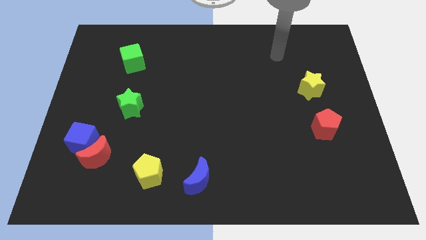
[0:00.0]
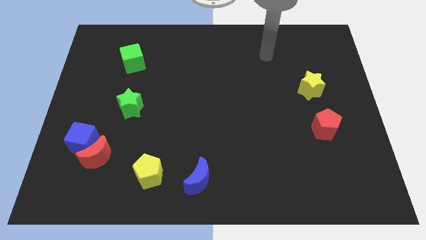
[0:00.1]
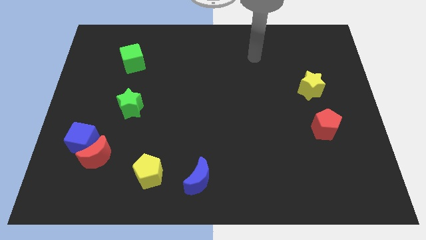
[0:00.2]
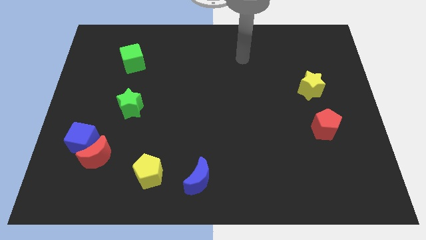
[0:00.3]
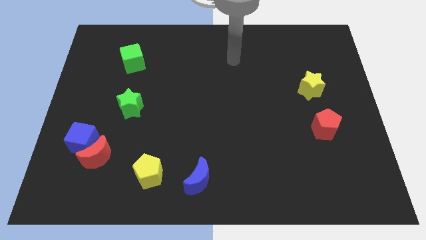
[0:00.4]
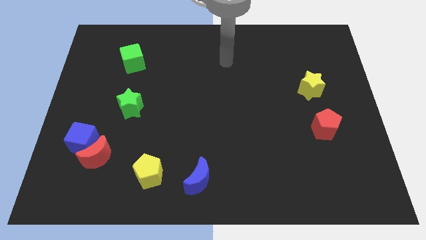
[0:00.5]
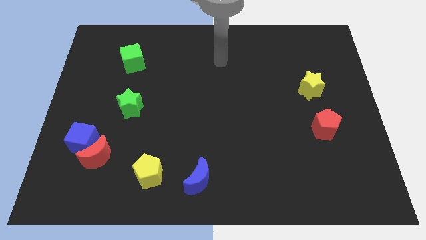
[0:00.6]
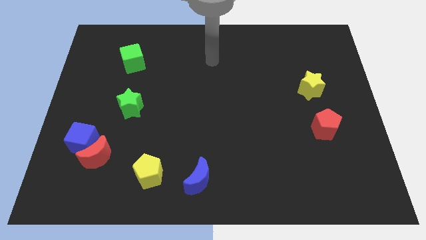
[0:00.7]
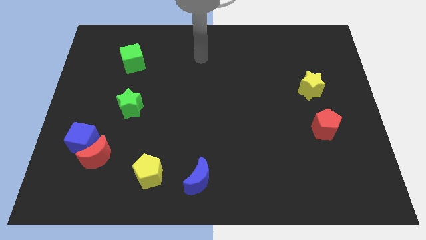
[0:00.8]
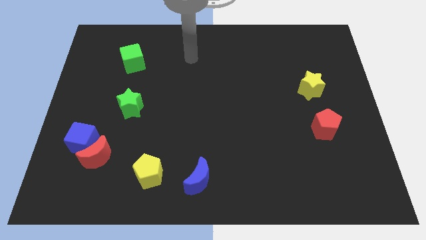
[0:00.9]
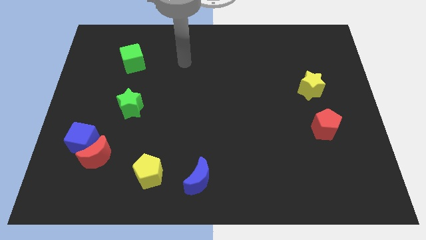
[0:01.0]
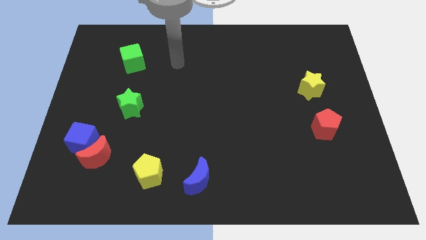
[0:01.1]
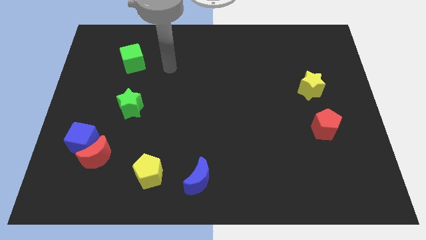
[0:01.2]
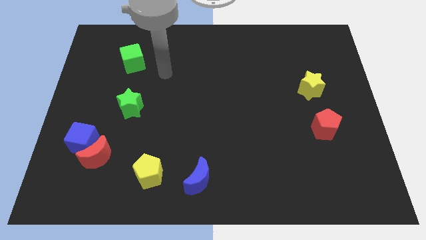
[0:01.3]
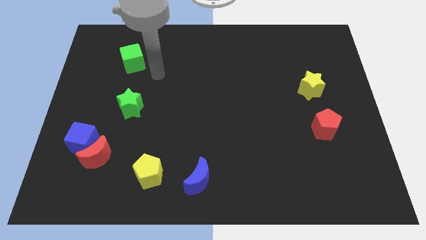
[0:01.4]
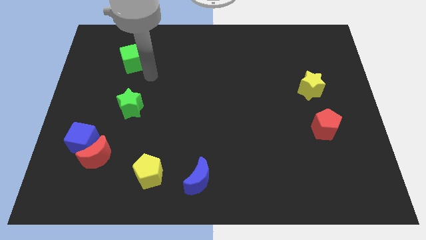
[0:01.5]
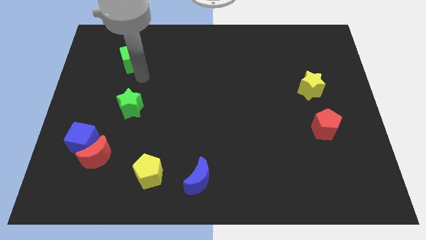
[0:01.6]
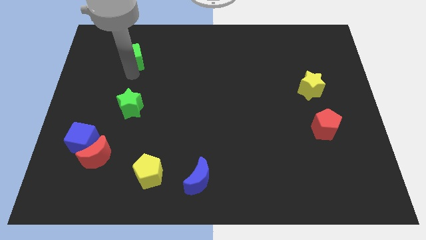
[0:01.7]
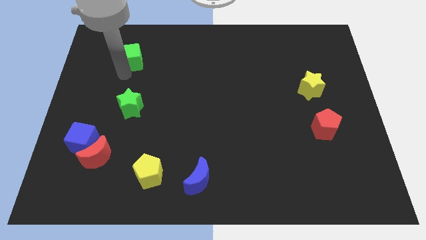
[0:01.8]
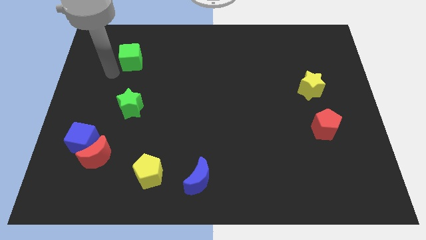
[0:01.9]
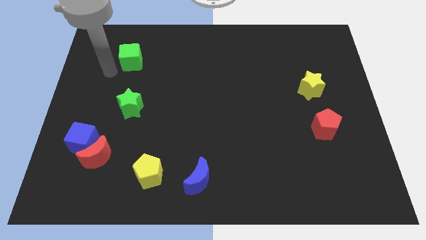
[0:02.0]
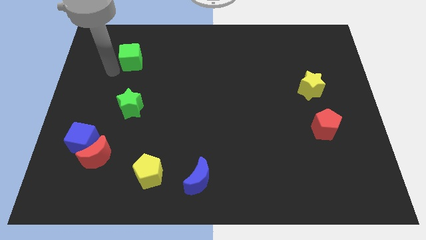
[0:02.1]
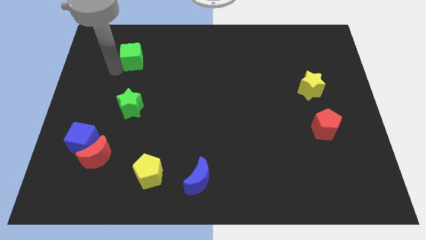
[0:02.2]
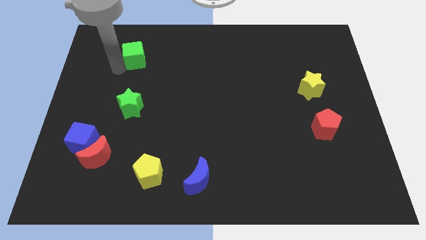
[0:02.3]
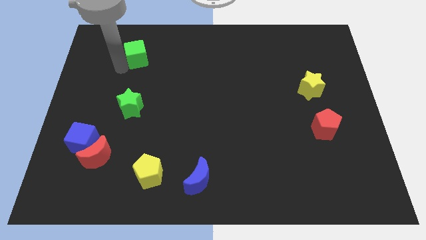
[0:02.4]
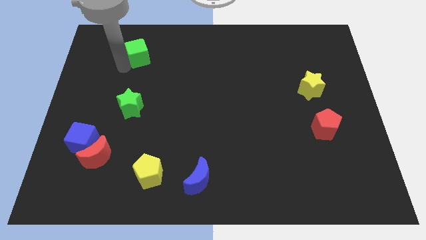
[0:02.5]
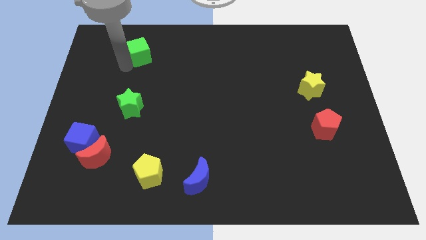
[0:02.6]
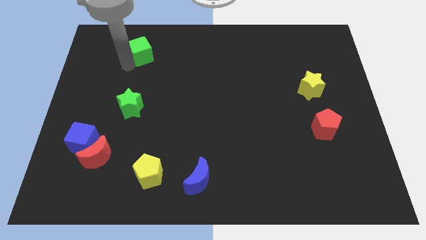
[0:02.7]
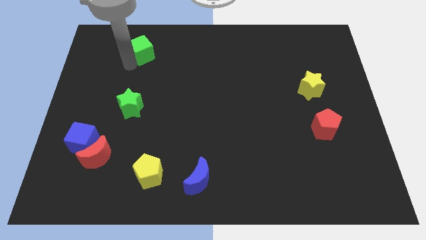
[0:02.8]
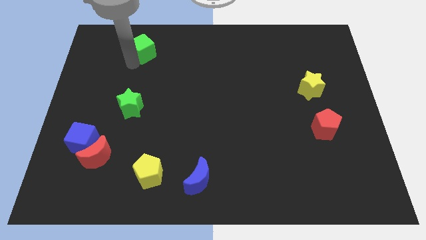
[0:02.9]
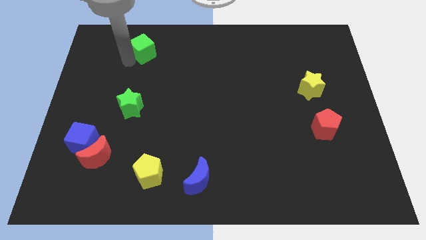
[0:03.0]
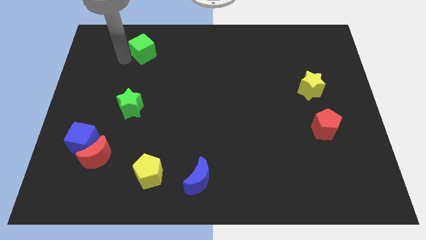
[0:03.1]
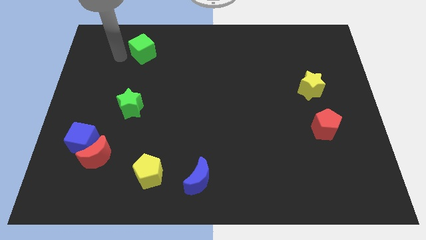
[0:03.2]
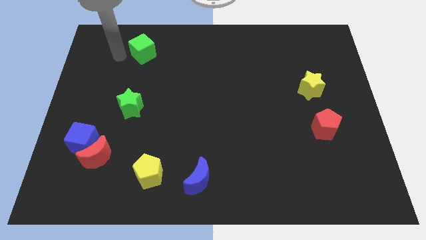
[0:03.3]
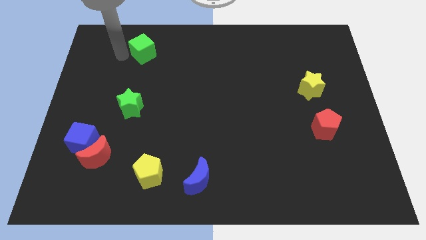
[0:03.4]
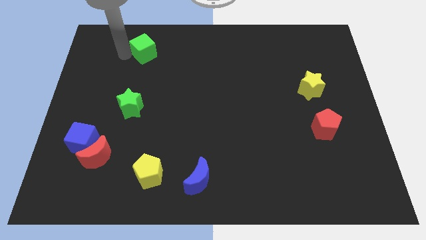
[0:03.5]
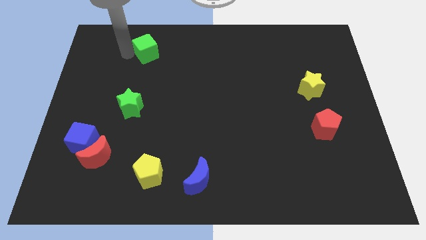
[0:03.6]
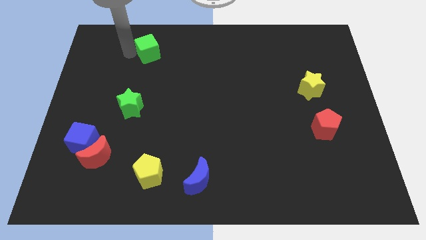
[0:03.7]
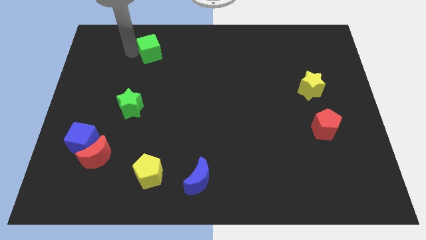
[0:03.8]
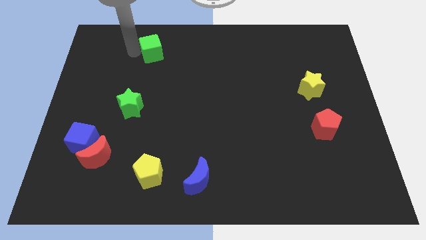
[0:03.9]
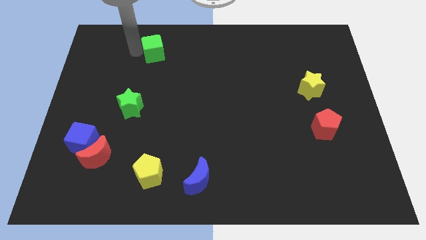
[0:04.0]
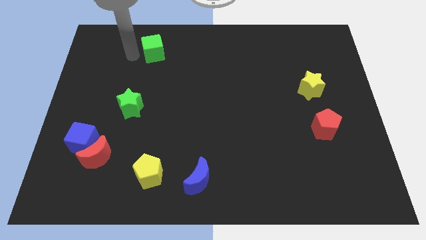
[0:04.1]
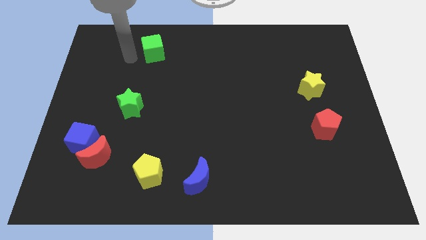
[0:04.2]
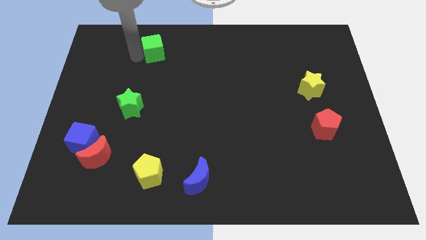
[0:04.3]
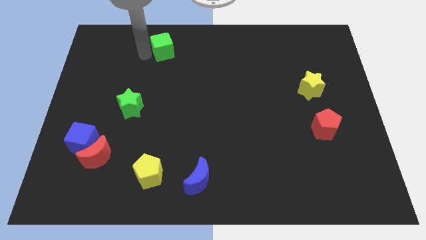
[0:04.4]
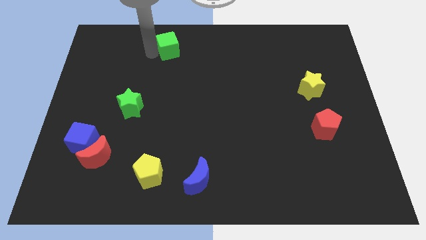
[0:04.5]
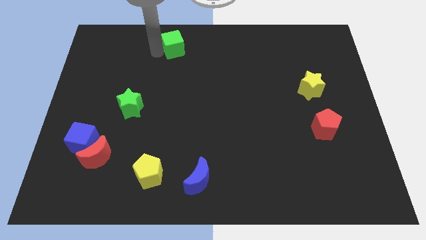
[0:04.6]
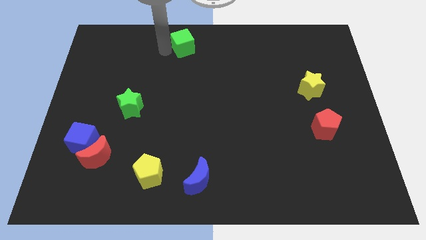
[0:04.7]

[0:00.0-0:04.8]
push the green cube to the top

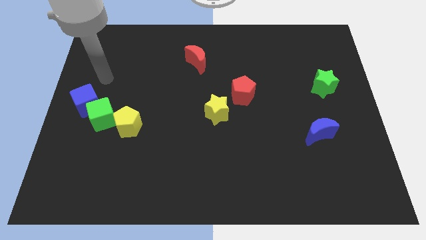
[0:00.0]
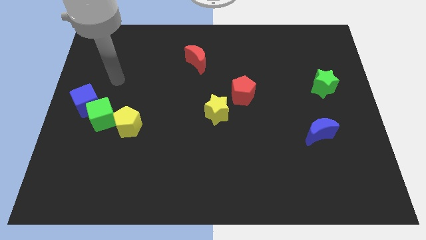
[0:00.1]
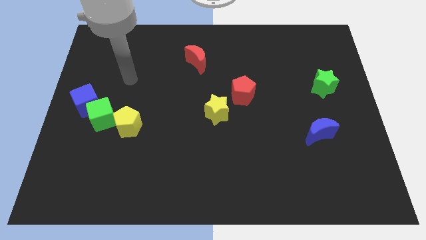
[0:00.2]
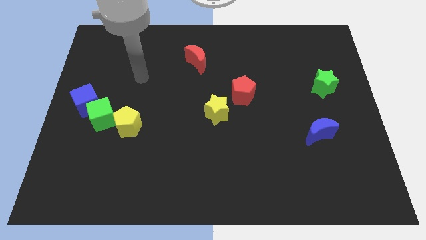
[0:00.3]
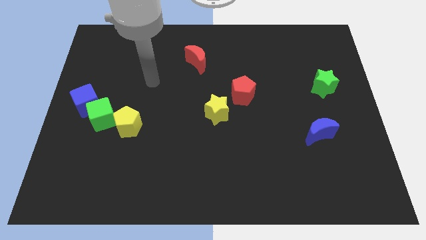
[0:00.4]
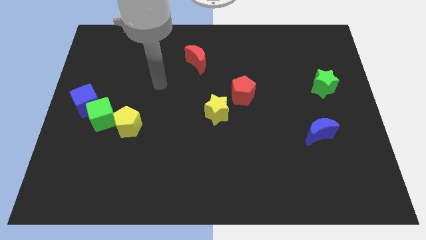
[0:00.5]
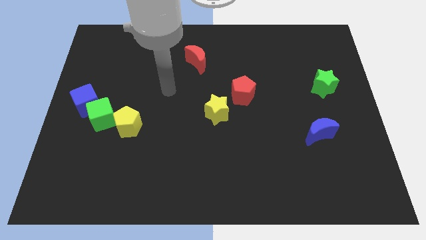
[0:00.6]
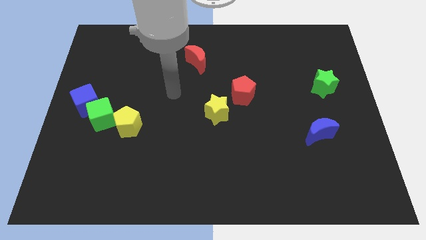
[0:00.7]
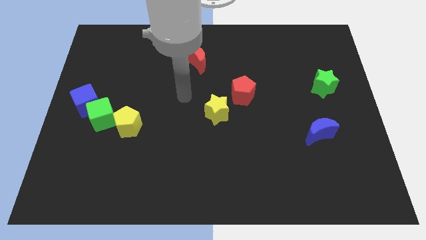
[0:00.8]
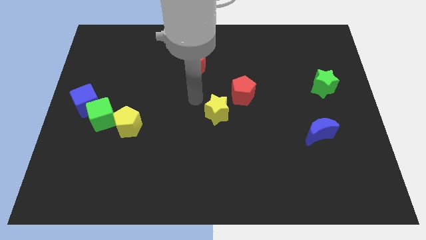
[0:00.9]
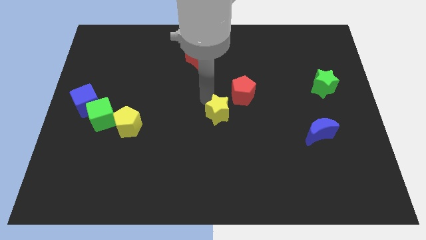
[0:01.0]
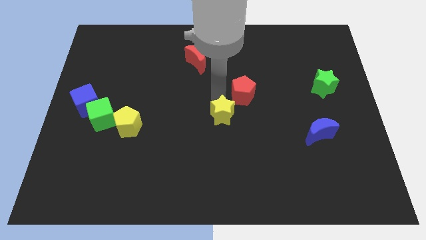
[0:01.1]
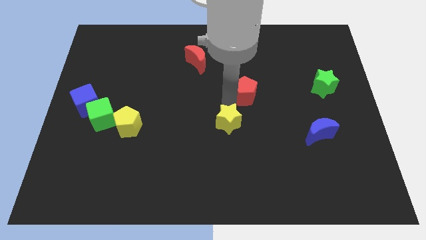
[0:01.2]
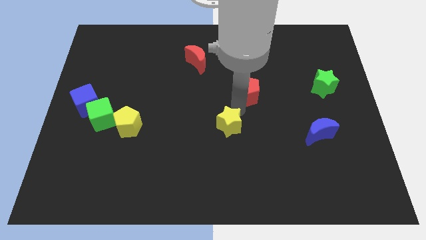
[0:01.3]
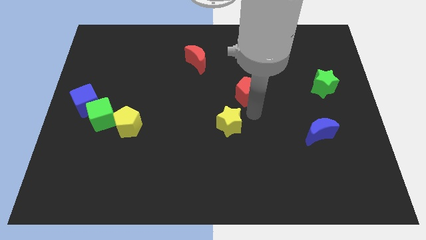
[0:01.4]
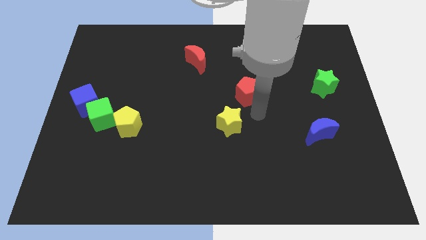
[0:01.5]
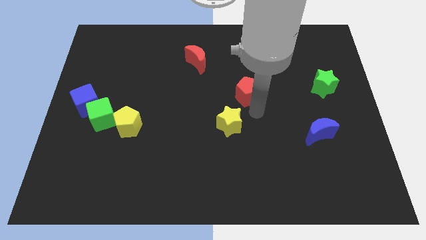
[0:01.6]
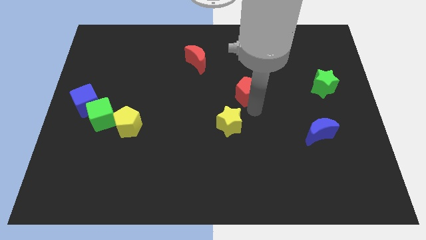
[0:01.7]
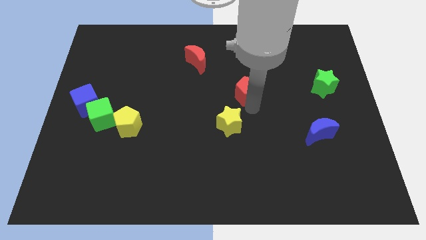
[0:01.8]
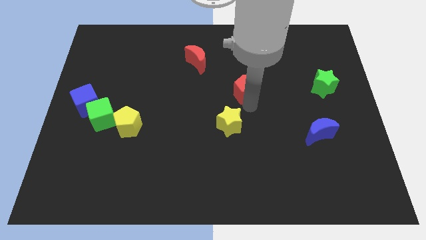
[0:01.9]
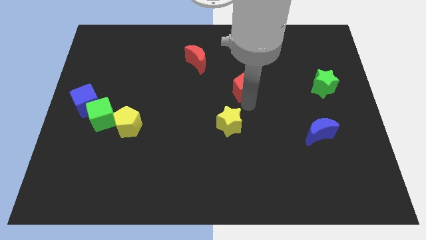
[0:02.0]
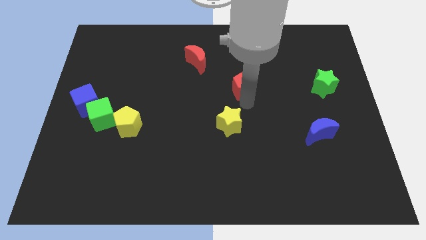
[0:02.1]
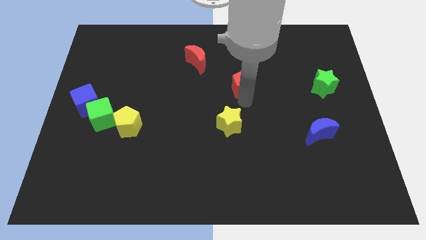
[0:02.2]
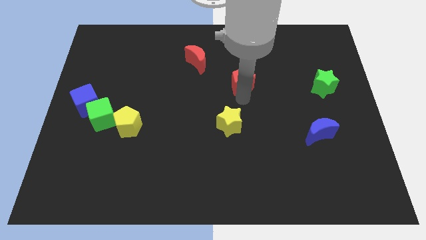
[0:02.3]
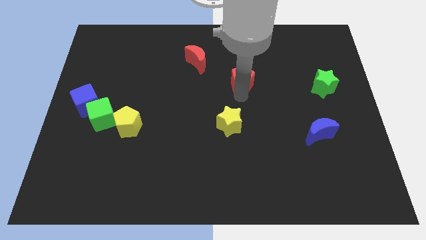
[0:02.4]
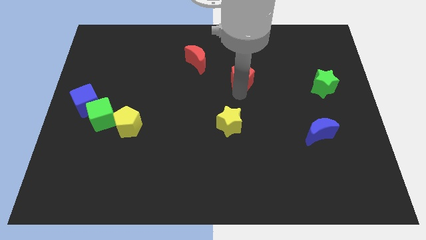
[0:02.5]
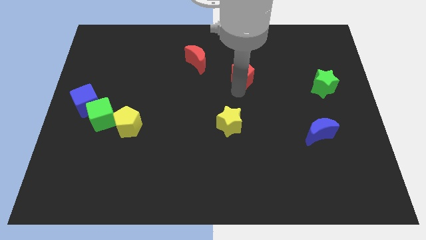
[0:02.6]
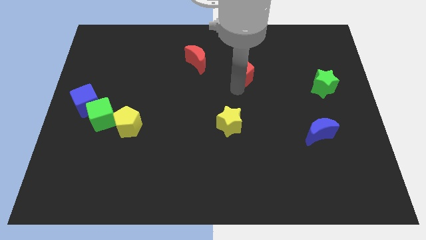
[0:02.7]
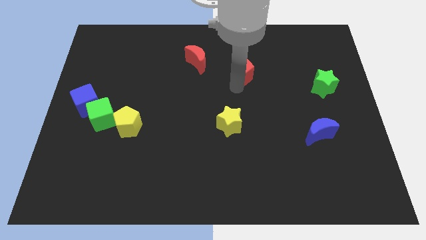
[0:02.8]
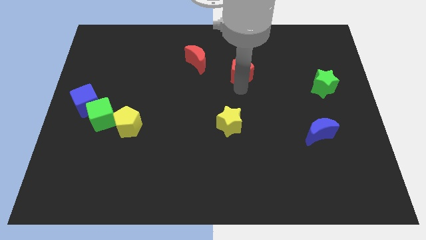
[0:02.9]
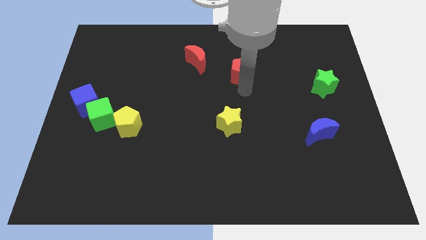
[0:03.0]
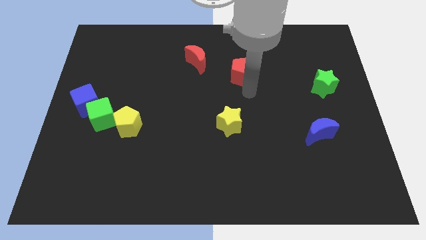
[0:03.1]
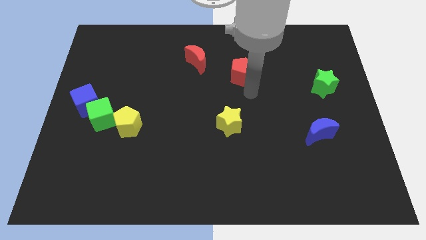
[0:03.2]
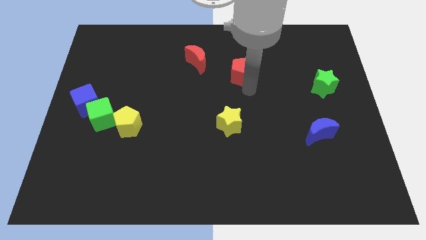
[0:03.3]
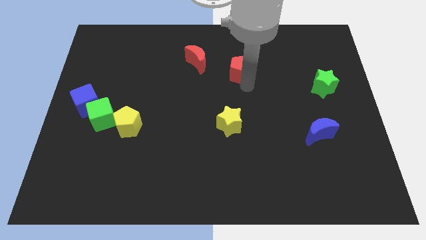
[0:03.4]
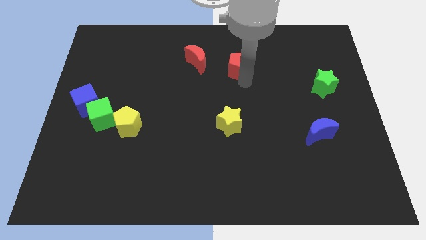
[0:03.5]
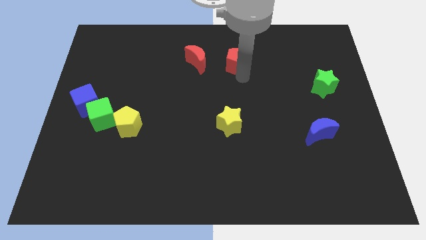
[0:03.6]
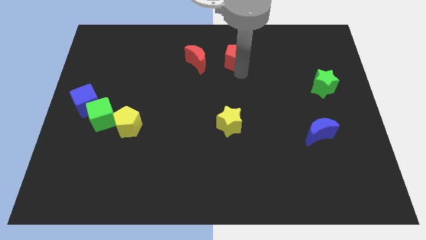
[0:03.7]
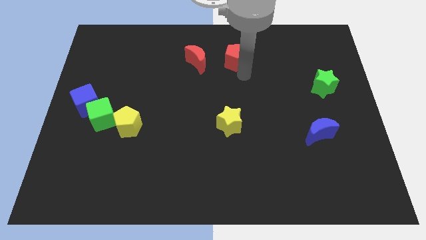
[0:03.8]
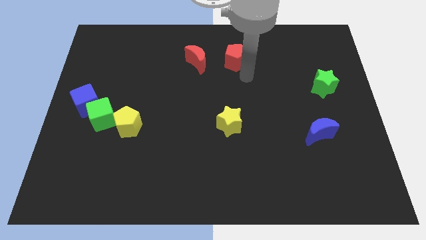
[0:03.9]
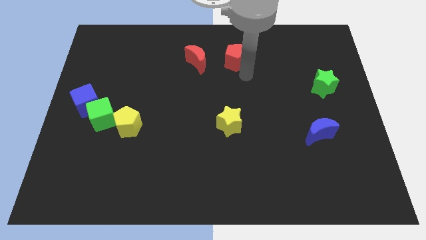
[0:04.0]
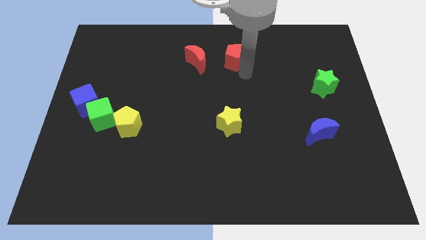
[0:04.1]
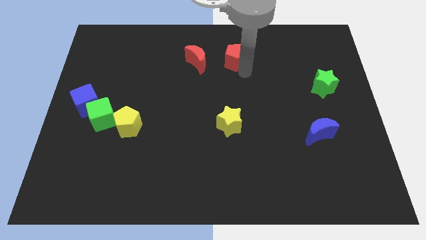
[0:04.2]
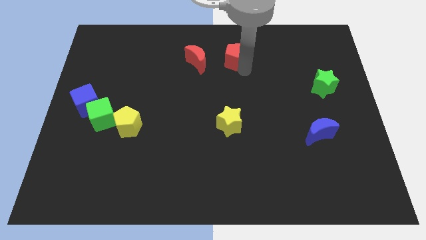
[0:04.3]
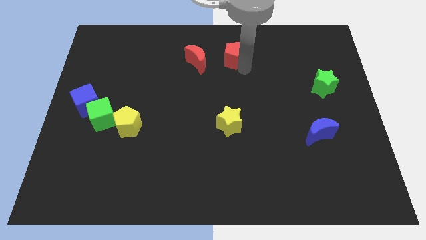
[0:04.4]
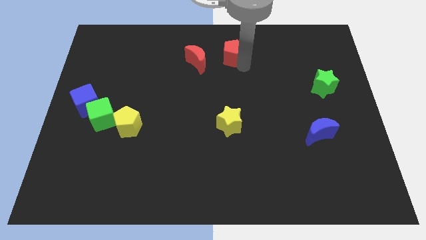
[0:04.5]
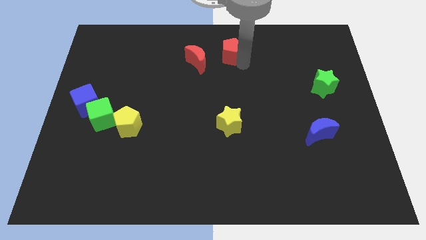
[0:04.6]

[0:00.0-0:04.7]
slide the red pentagon to the top
